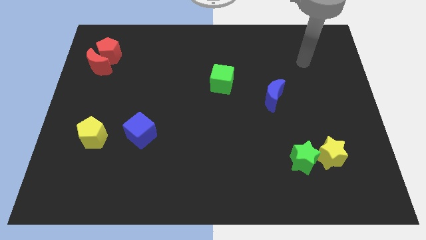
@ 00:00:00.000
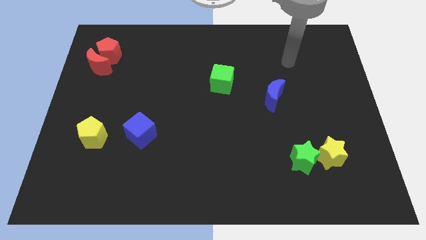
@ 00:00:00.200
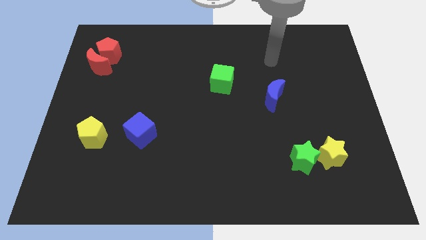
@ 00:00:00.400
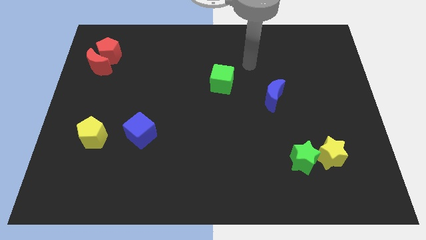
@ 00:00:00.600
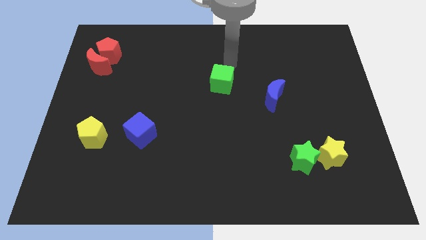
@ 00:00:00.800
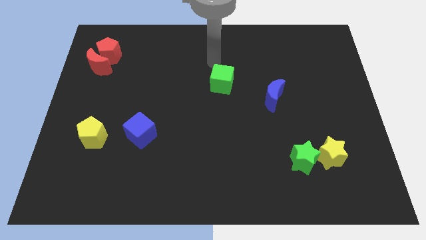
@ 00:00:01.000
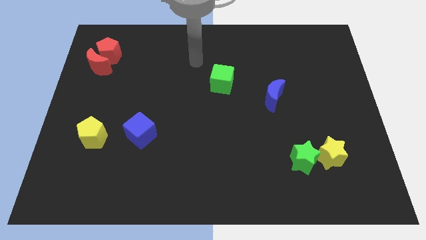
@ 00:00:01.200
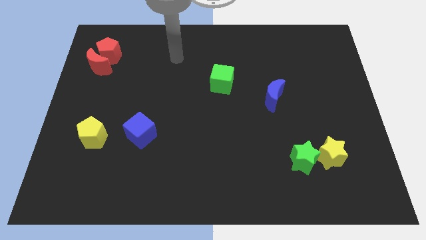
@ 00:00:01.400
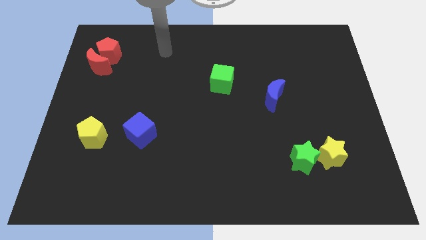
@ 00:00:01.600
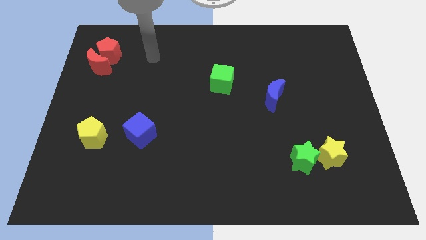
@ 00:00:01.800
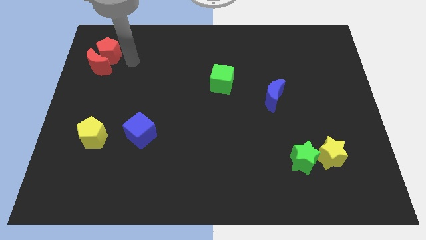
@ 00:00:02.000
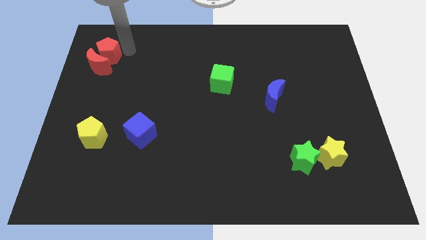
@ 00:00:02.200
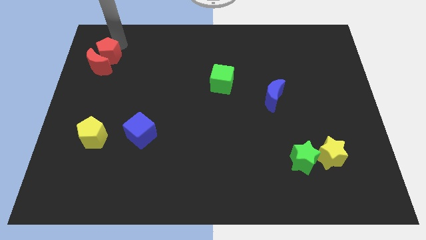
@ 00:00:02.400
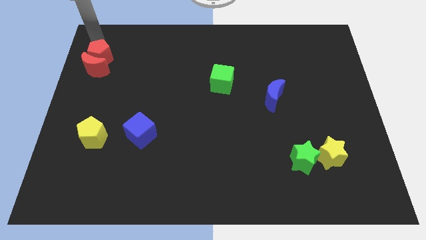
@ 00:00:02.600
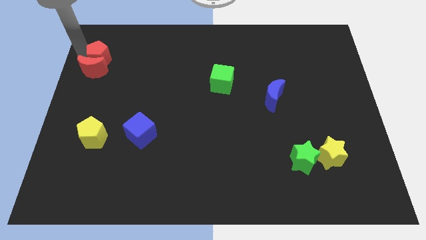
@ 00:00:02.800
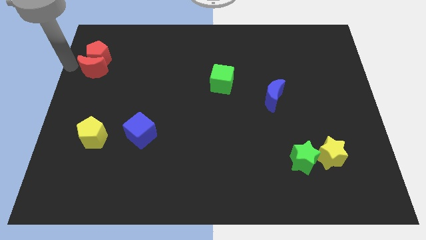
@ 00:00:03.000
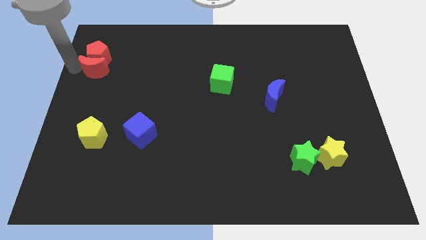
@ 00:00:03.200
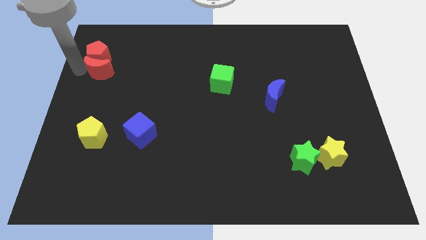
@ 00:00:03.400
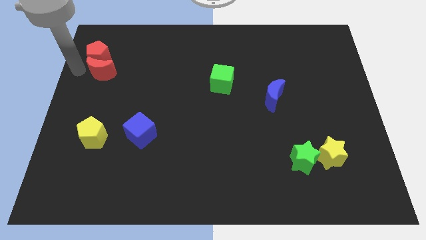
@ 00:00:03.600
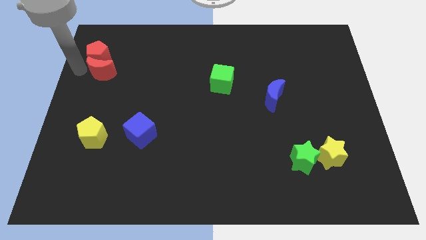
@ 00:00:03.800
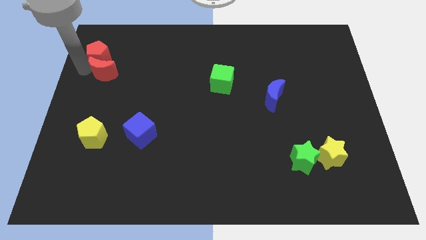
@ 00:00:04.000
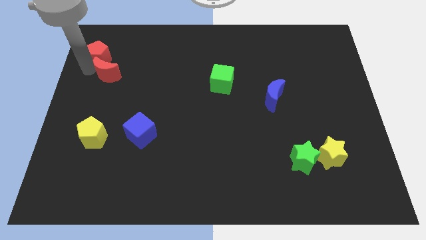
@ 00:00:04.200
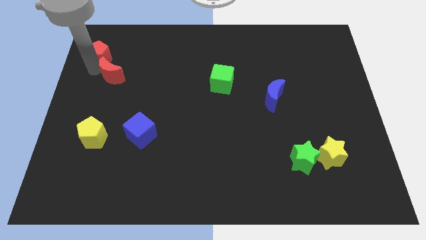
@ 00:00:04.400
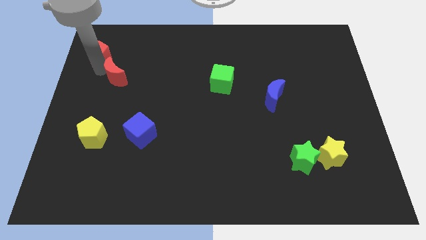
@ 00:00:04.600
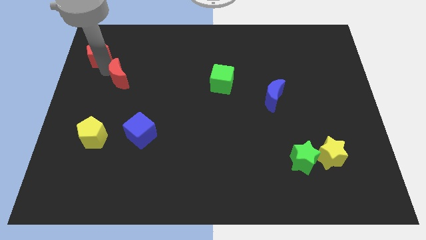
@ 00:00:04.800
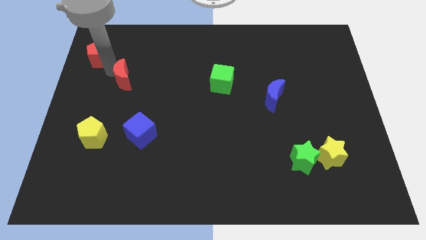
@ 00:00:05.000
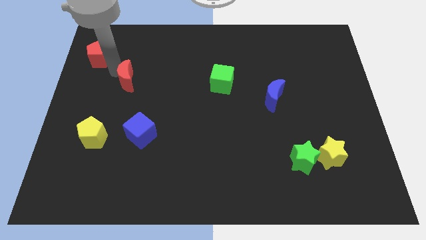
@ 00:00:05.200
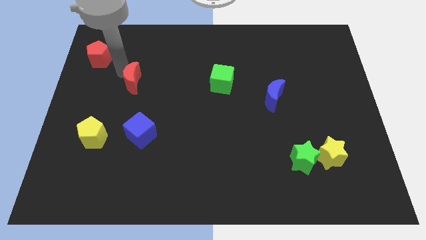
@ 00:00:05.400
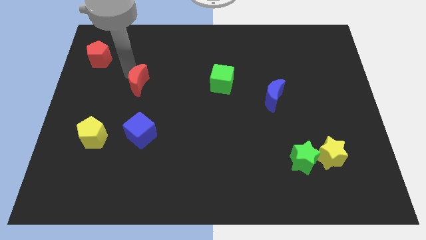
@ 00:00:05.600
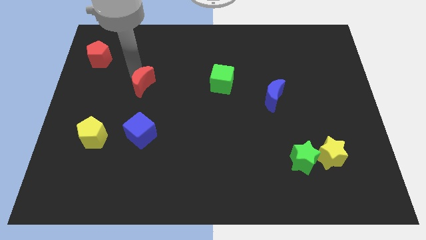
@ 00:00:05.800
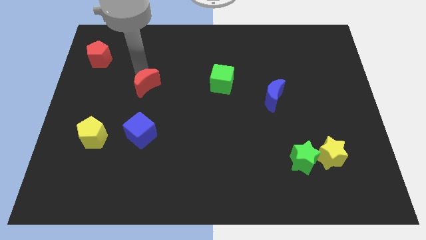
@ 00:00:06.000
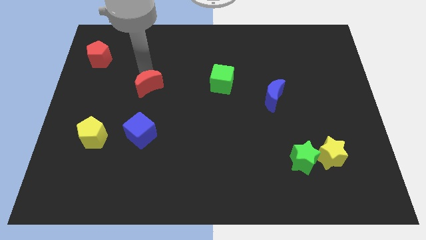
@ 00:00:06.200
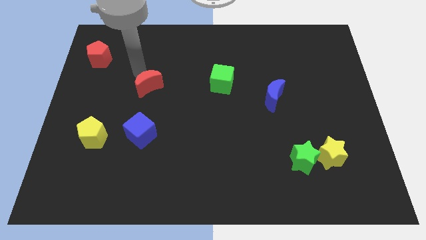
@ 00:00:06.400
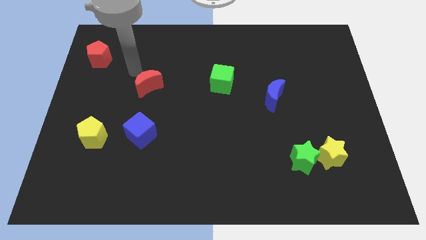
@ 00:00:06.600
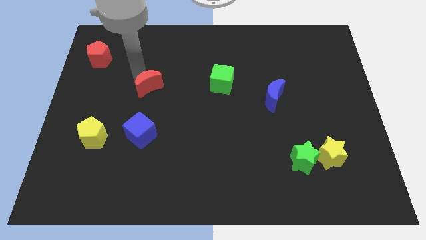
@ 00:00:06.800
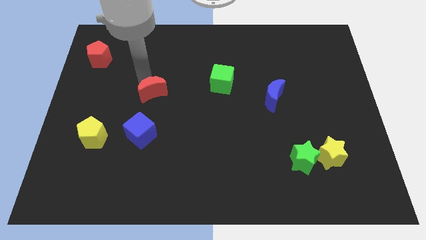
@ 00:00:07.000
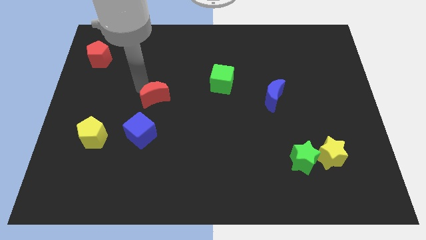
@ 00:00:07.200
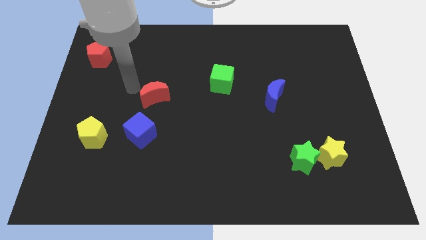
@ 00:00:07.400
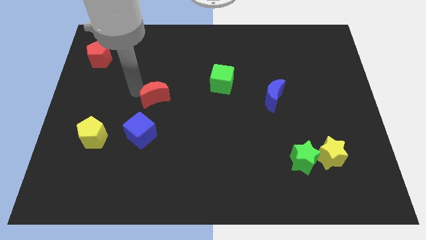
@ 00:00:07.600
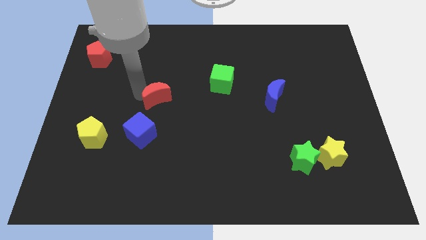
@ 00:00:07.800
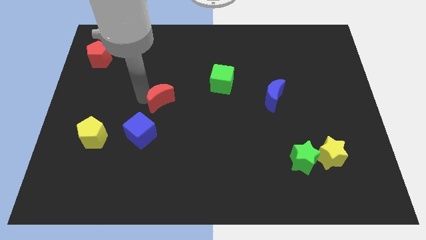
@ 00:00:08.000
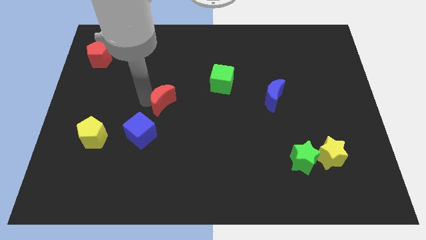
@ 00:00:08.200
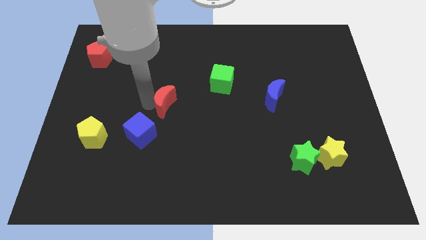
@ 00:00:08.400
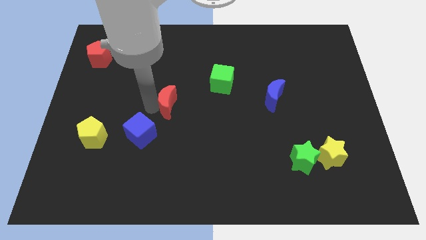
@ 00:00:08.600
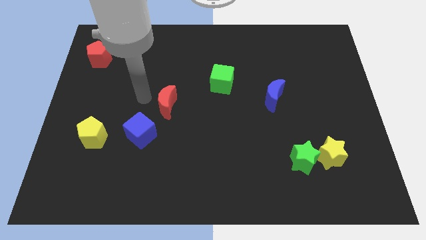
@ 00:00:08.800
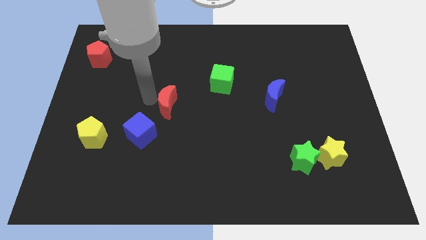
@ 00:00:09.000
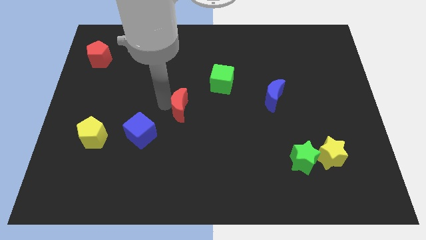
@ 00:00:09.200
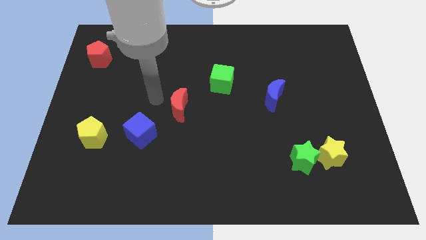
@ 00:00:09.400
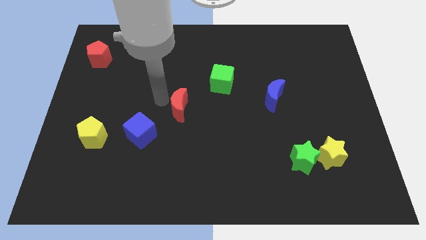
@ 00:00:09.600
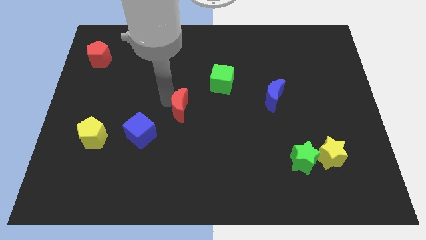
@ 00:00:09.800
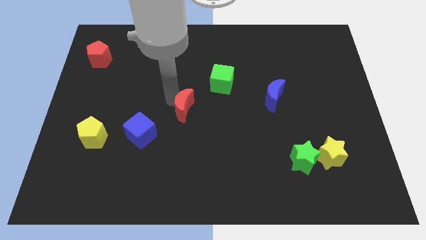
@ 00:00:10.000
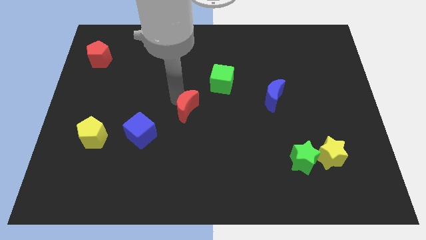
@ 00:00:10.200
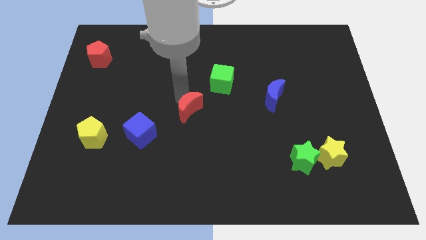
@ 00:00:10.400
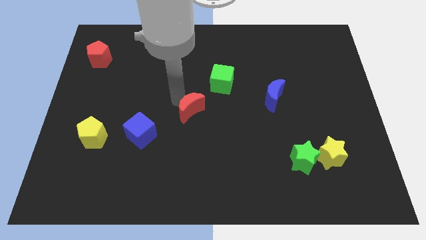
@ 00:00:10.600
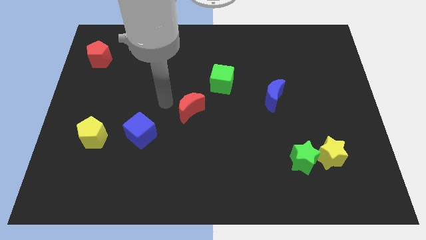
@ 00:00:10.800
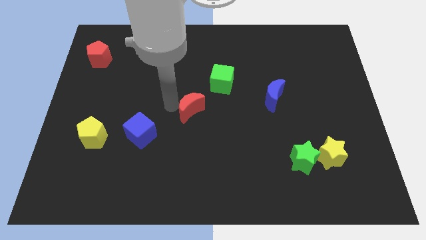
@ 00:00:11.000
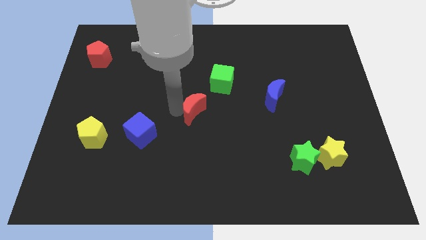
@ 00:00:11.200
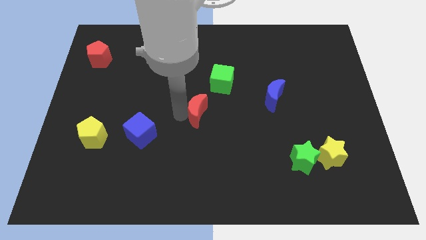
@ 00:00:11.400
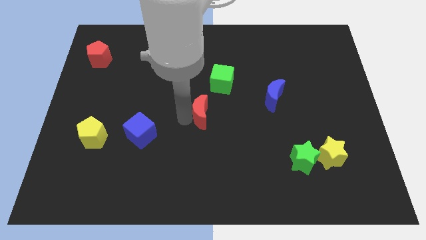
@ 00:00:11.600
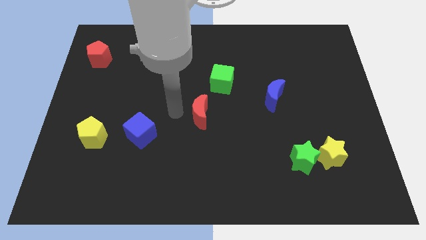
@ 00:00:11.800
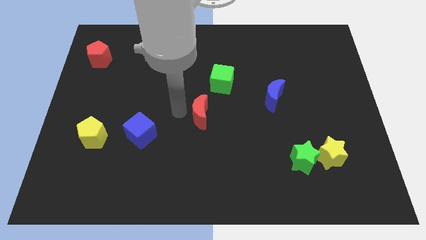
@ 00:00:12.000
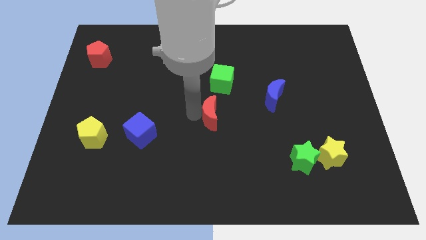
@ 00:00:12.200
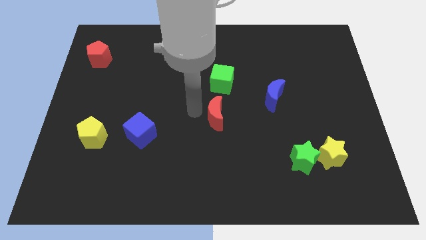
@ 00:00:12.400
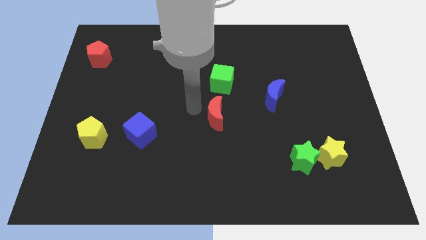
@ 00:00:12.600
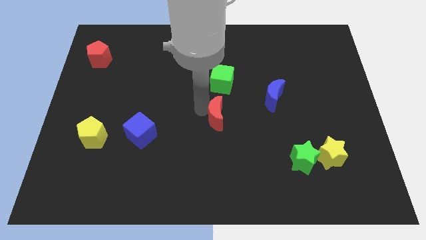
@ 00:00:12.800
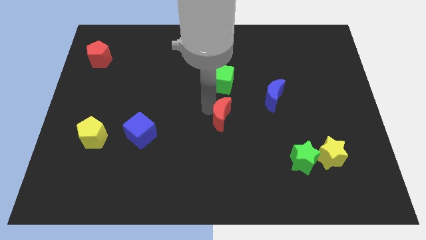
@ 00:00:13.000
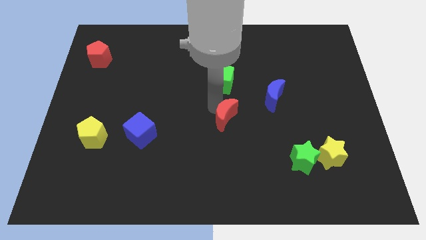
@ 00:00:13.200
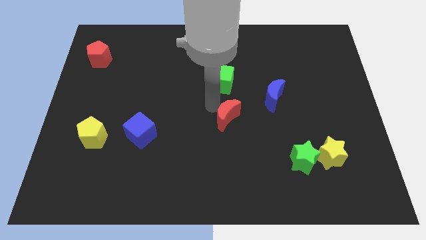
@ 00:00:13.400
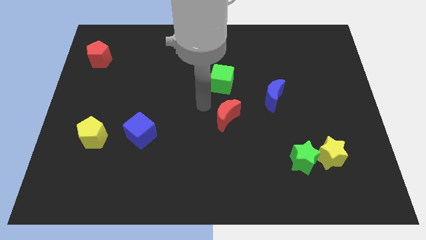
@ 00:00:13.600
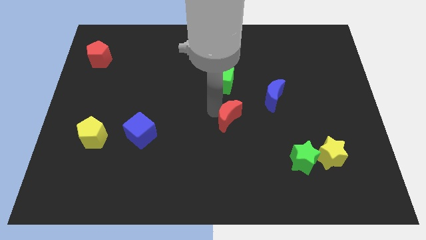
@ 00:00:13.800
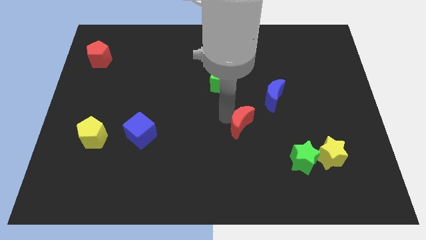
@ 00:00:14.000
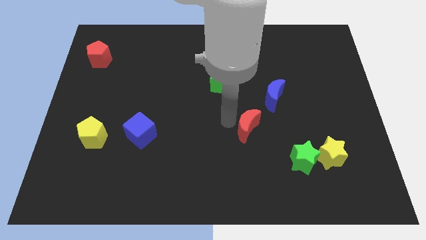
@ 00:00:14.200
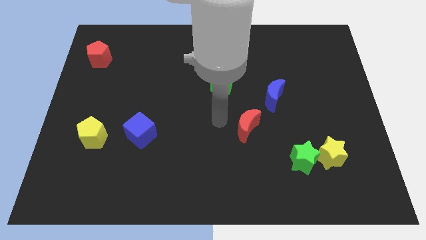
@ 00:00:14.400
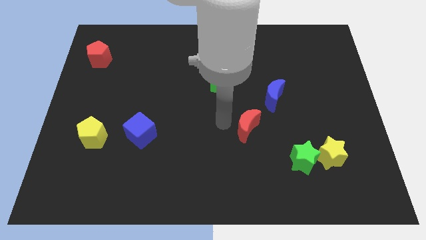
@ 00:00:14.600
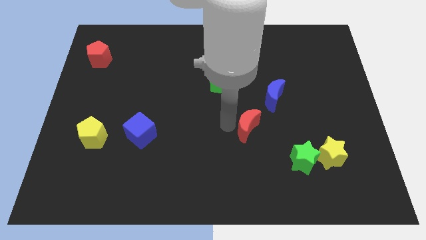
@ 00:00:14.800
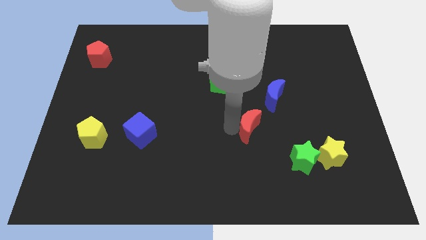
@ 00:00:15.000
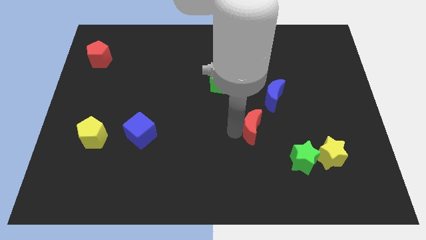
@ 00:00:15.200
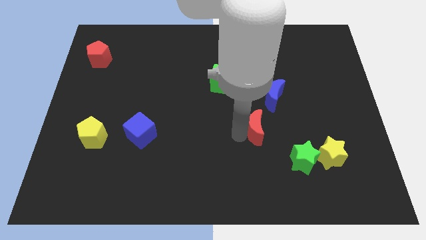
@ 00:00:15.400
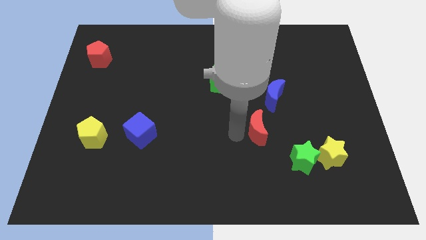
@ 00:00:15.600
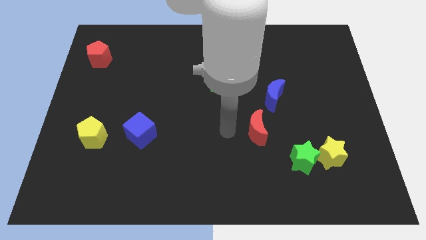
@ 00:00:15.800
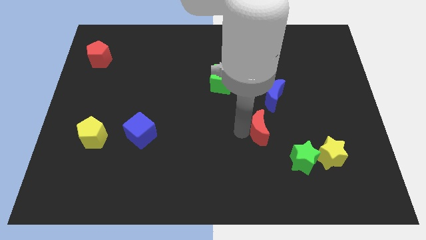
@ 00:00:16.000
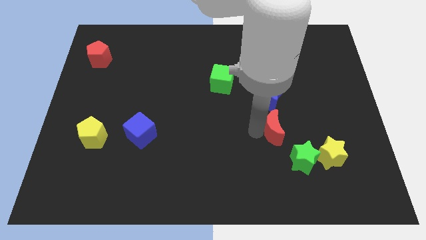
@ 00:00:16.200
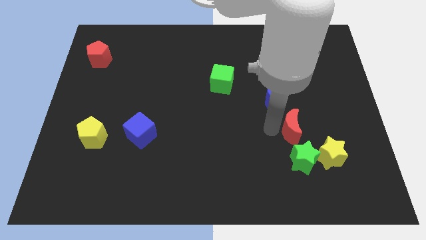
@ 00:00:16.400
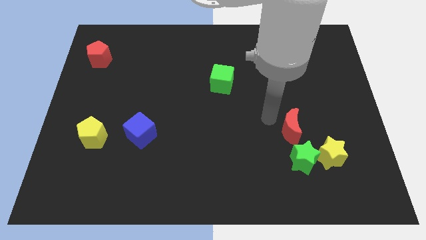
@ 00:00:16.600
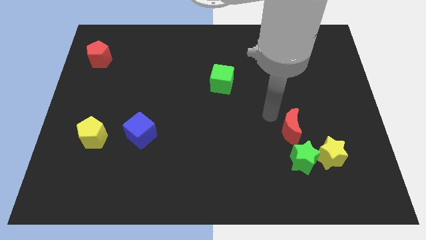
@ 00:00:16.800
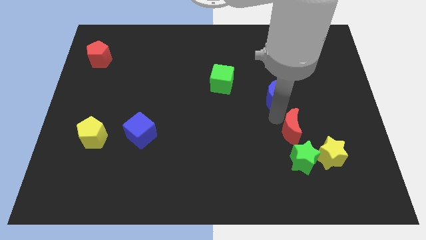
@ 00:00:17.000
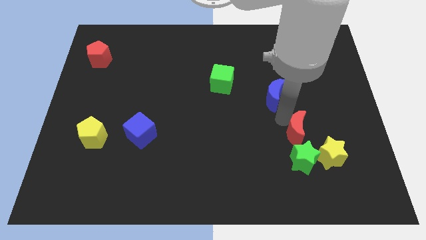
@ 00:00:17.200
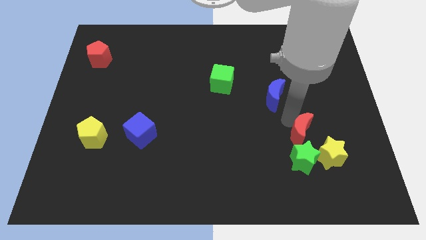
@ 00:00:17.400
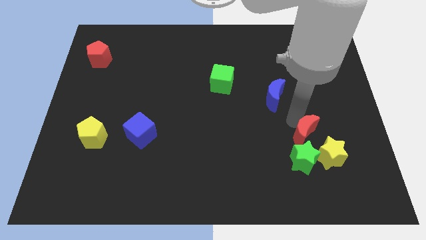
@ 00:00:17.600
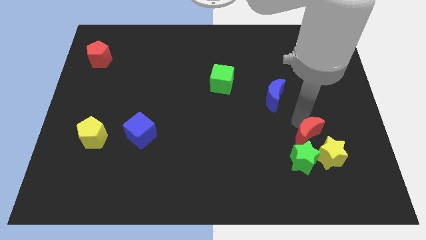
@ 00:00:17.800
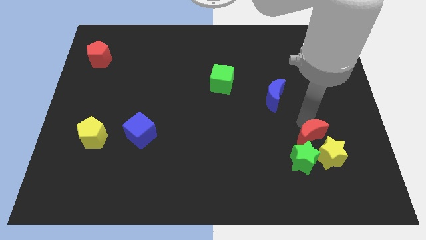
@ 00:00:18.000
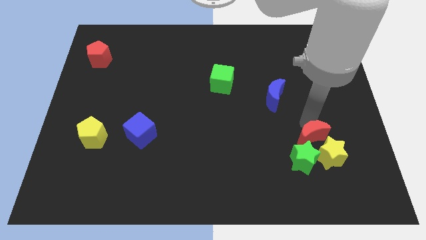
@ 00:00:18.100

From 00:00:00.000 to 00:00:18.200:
put the red moon close to the yellow star
